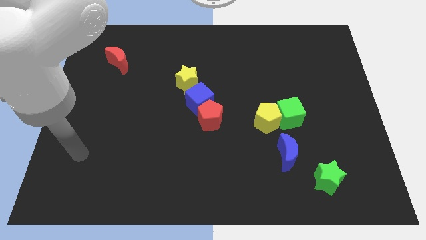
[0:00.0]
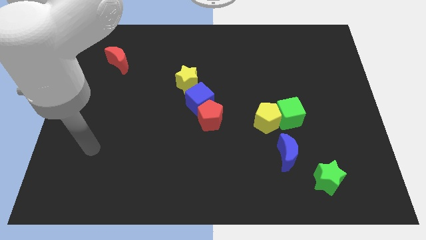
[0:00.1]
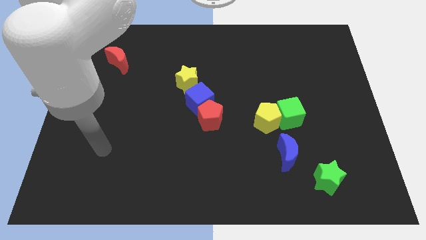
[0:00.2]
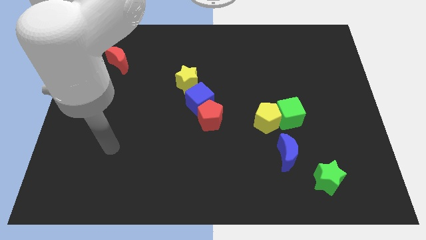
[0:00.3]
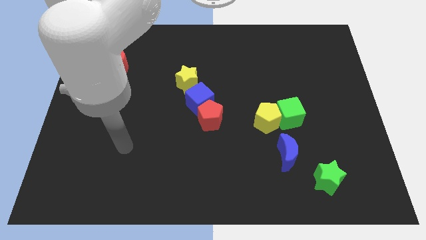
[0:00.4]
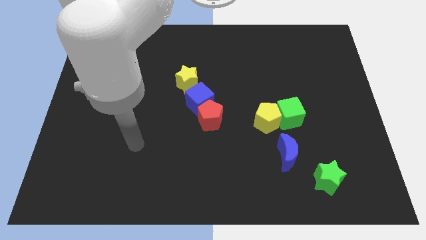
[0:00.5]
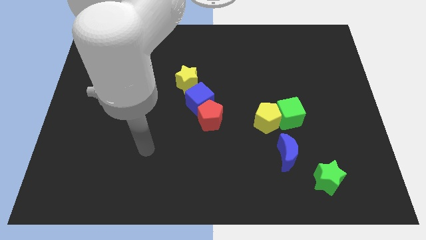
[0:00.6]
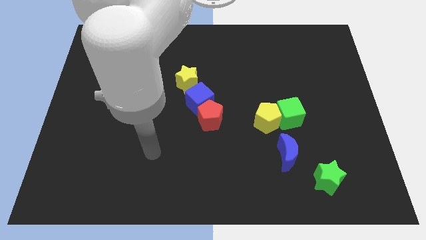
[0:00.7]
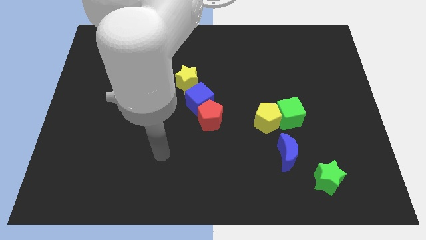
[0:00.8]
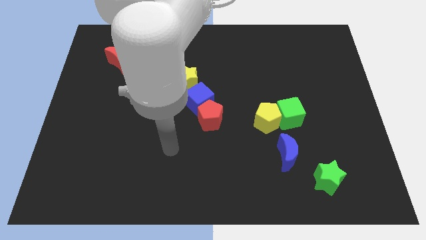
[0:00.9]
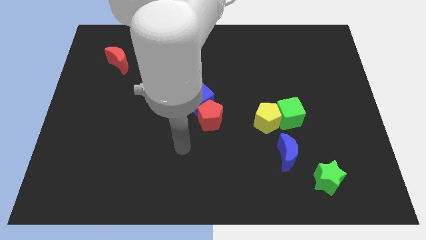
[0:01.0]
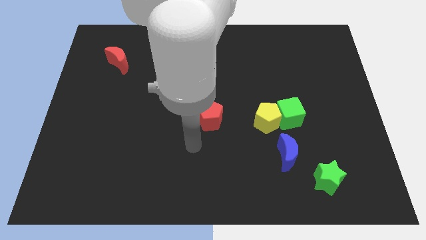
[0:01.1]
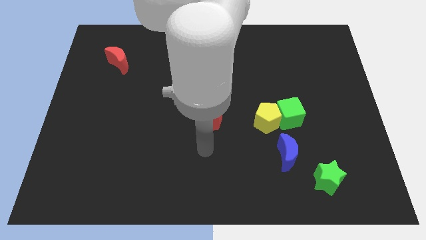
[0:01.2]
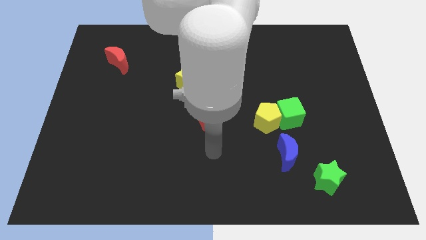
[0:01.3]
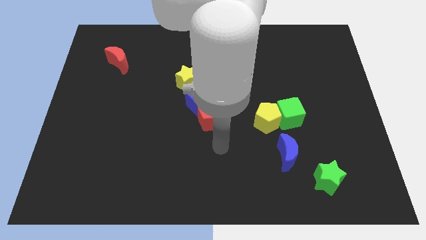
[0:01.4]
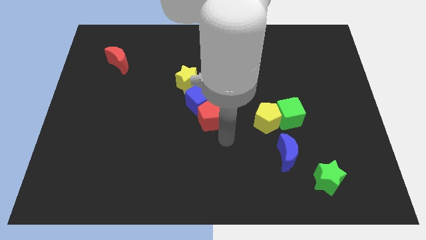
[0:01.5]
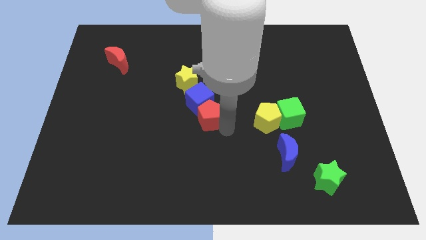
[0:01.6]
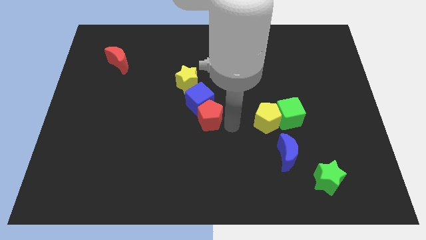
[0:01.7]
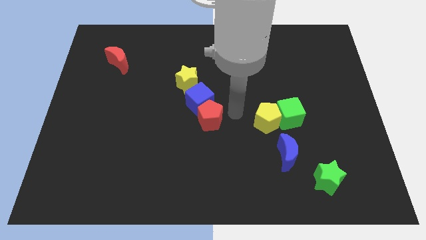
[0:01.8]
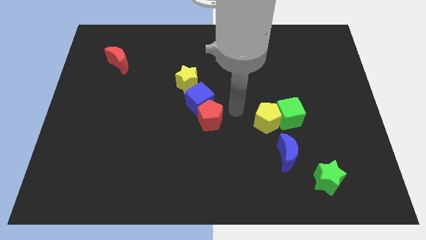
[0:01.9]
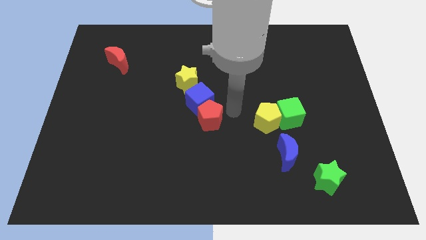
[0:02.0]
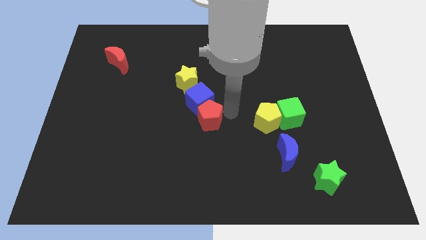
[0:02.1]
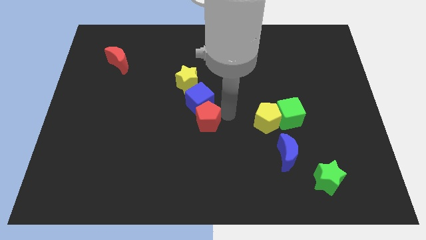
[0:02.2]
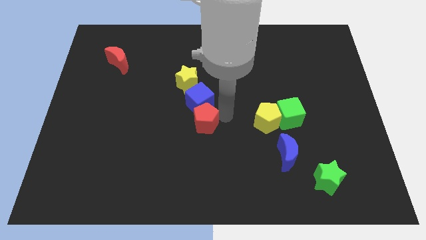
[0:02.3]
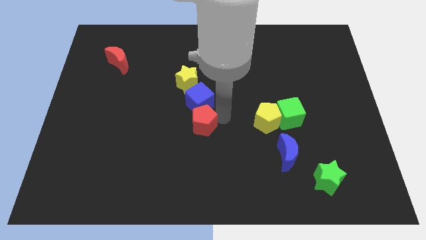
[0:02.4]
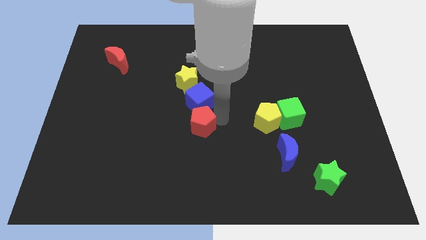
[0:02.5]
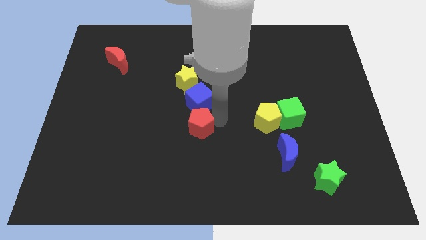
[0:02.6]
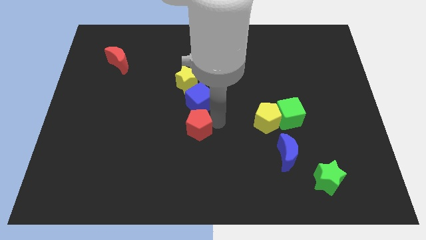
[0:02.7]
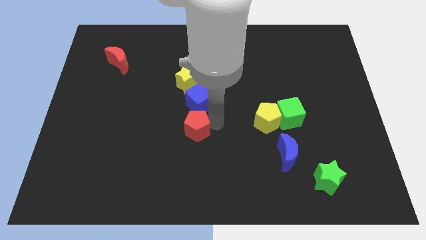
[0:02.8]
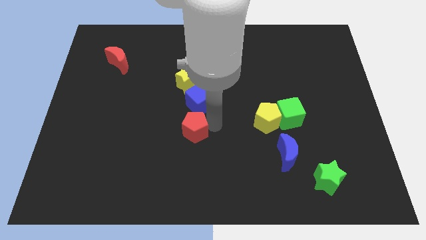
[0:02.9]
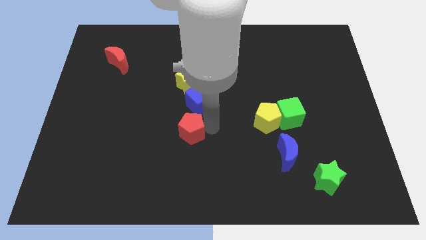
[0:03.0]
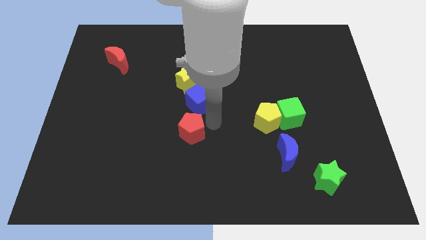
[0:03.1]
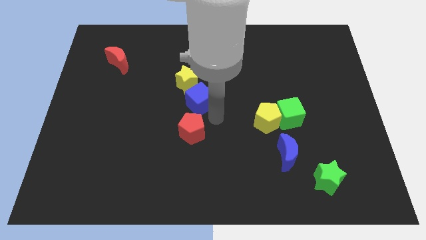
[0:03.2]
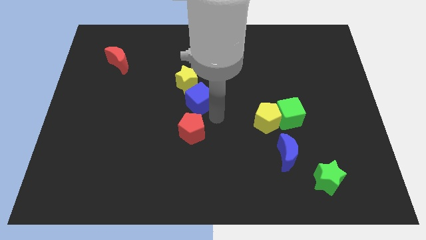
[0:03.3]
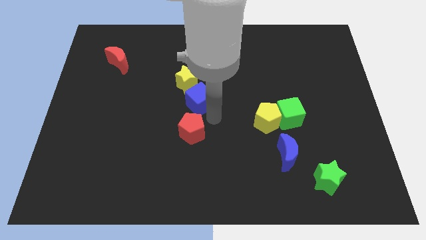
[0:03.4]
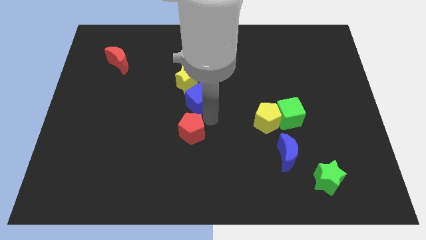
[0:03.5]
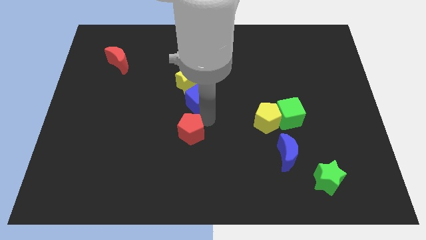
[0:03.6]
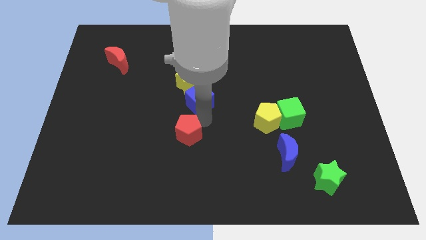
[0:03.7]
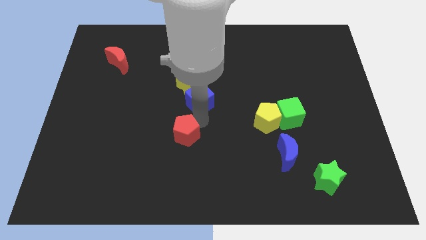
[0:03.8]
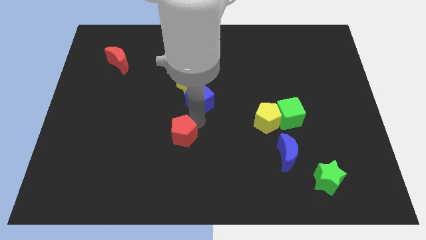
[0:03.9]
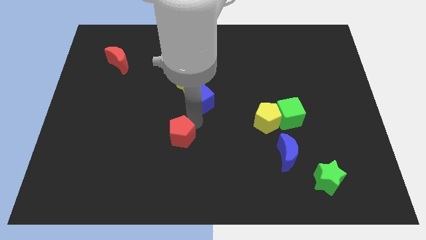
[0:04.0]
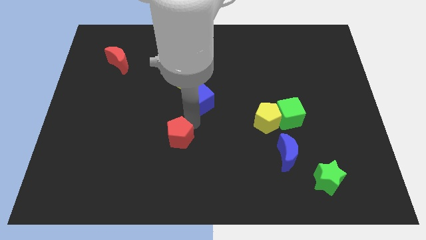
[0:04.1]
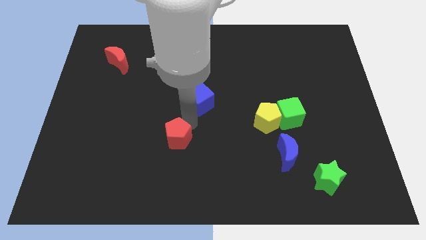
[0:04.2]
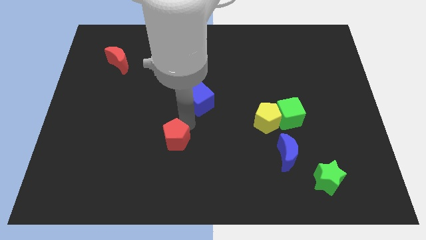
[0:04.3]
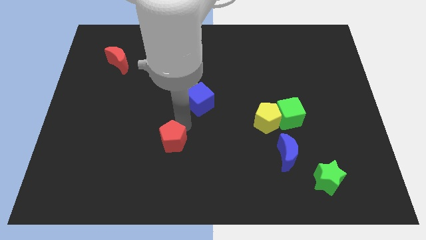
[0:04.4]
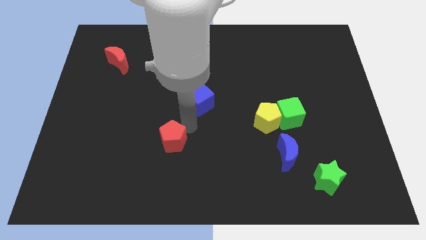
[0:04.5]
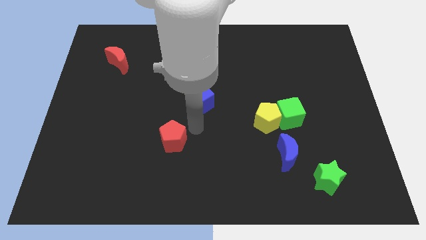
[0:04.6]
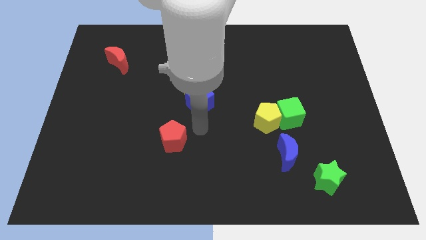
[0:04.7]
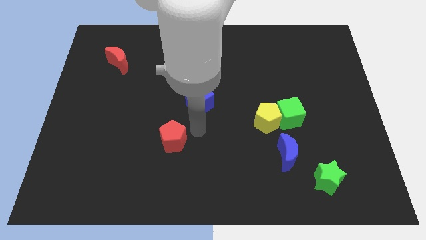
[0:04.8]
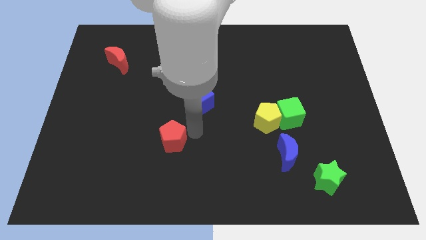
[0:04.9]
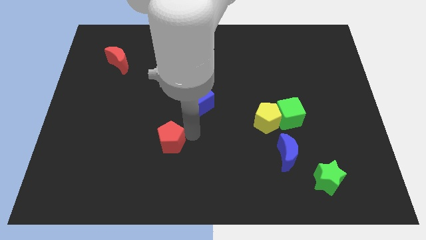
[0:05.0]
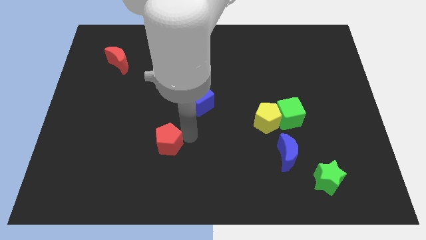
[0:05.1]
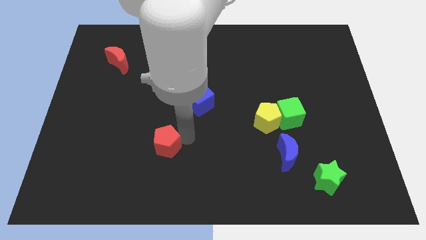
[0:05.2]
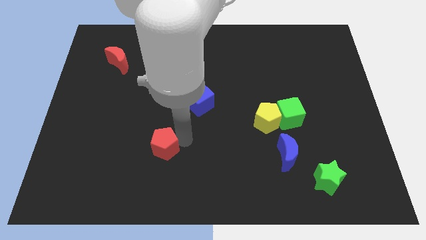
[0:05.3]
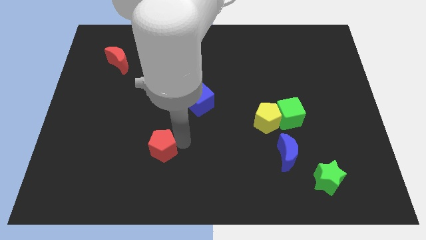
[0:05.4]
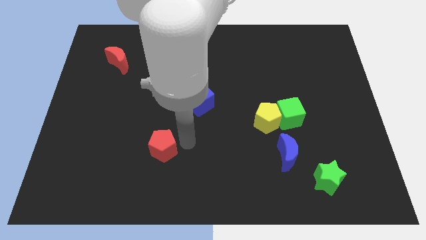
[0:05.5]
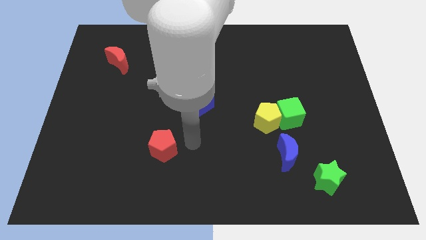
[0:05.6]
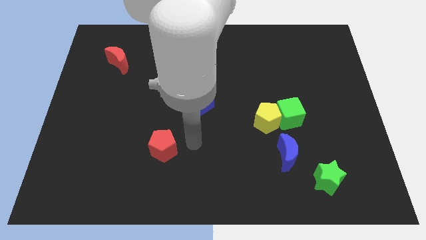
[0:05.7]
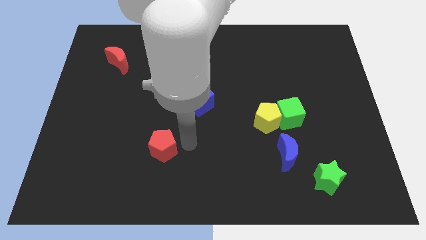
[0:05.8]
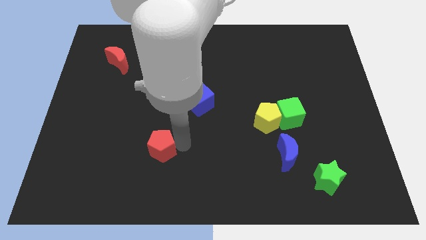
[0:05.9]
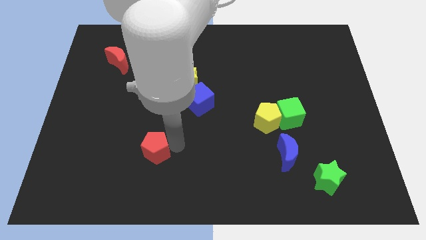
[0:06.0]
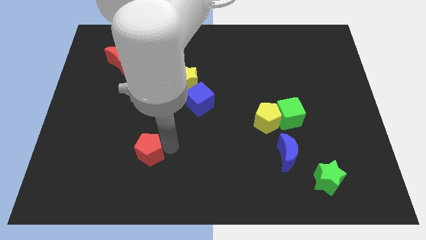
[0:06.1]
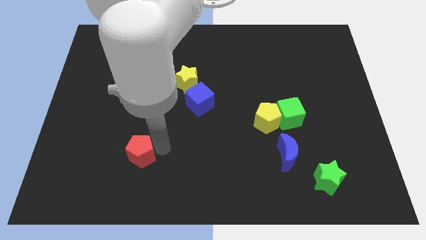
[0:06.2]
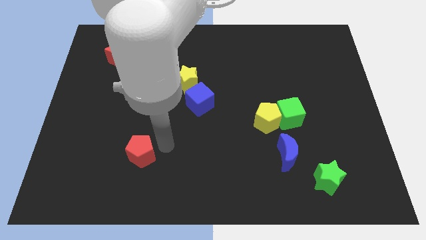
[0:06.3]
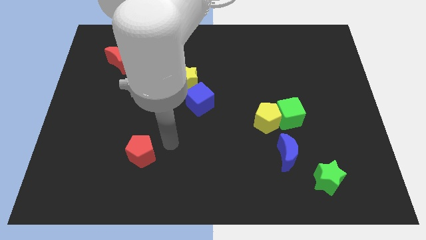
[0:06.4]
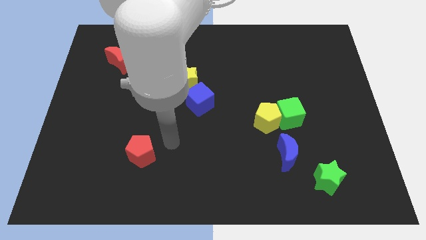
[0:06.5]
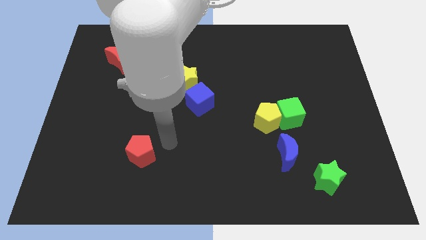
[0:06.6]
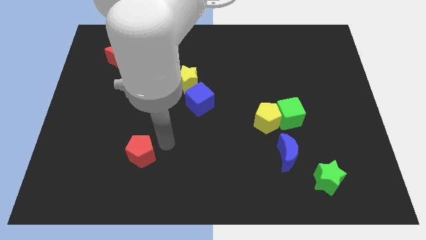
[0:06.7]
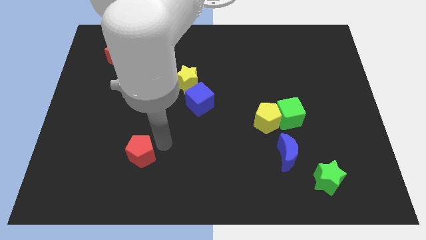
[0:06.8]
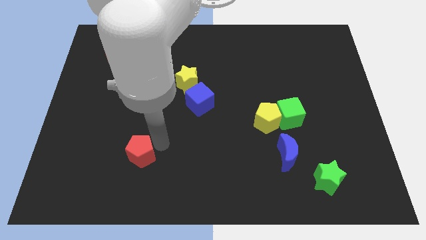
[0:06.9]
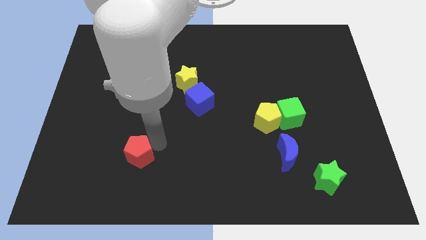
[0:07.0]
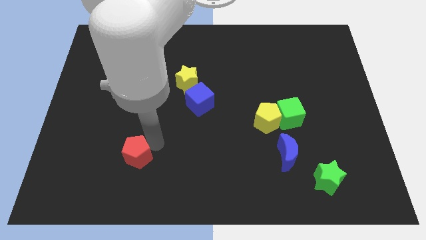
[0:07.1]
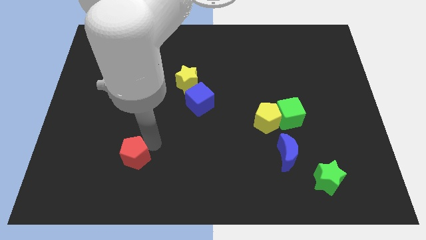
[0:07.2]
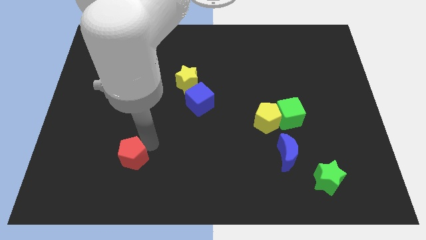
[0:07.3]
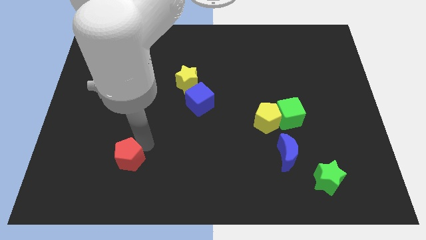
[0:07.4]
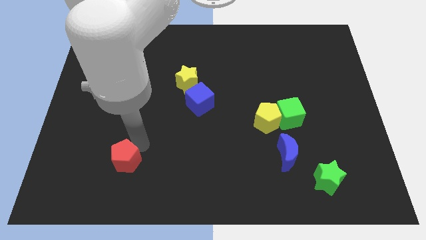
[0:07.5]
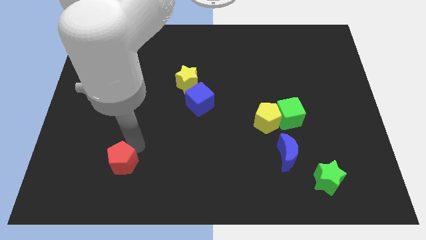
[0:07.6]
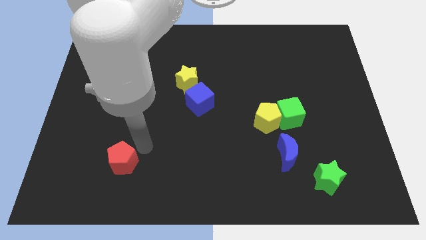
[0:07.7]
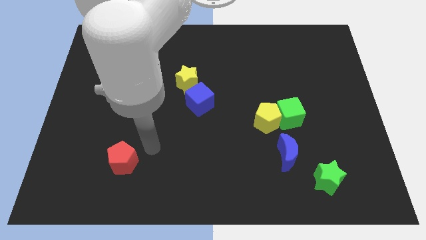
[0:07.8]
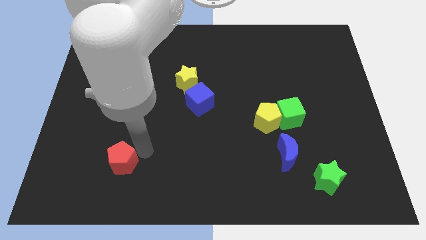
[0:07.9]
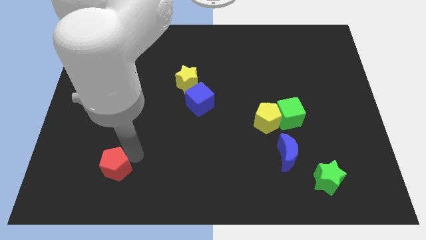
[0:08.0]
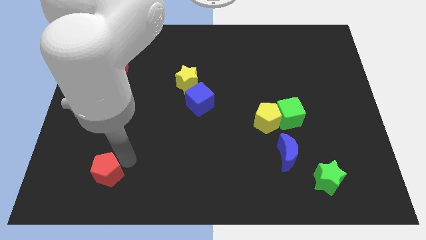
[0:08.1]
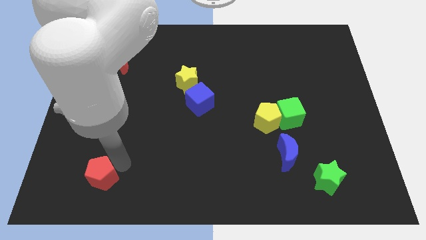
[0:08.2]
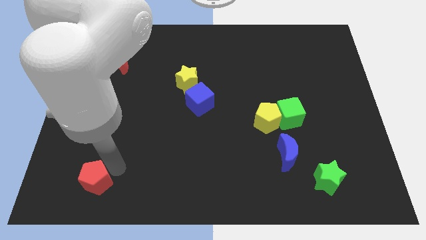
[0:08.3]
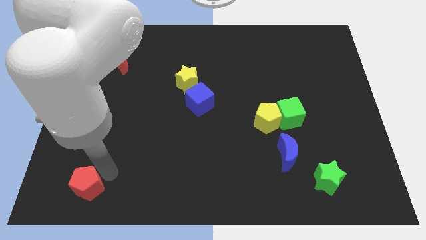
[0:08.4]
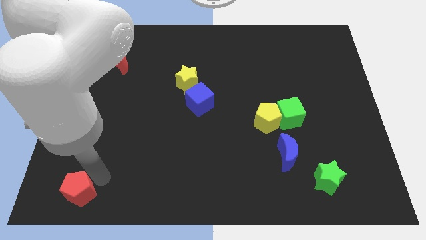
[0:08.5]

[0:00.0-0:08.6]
slide the red pentagon to the lower left corner
